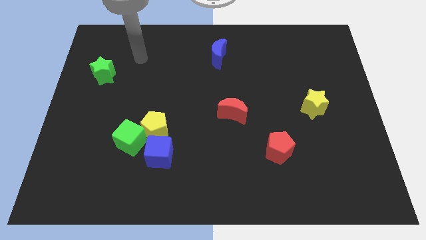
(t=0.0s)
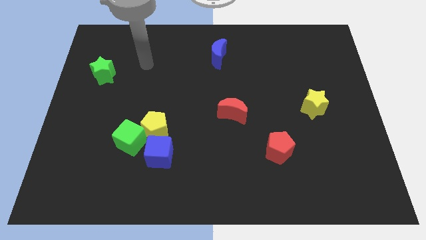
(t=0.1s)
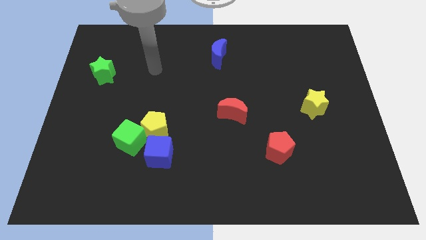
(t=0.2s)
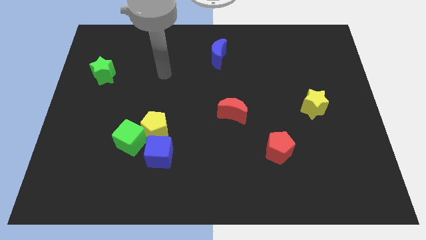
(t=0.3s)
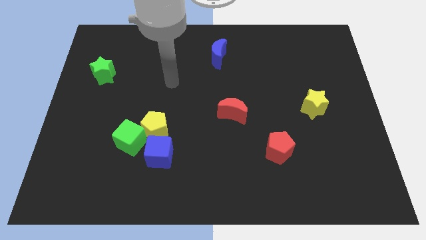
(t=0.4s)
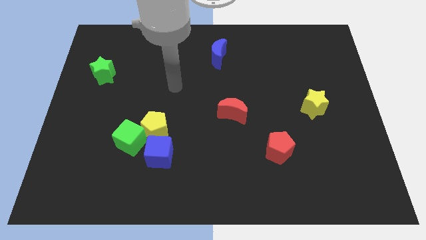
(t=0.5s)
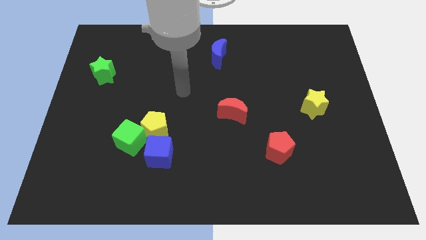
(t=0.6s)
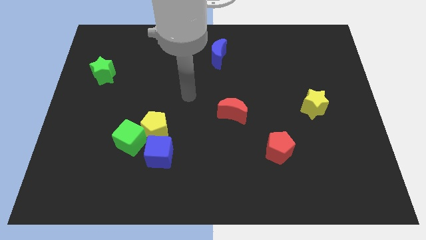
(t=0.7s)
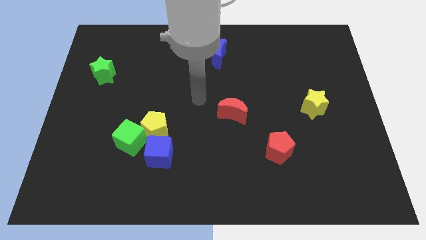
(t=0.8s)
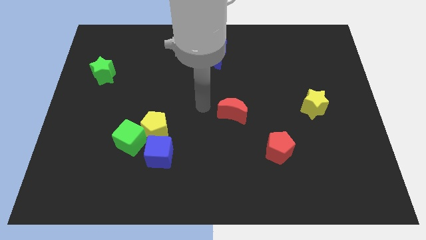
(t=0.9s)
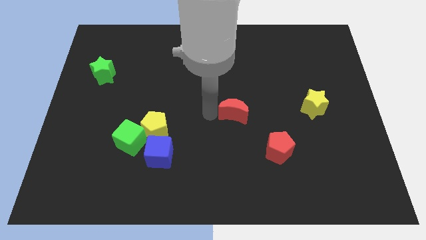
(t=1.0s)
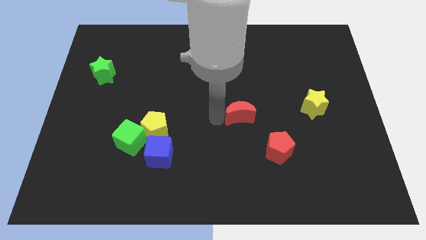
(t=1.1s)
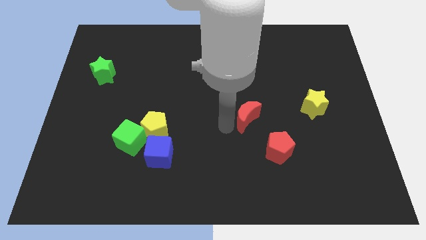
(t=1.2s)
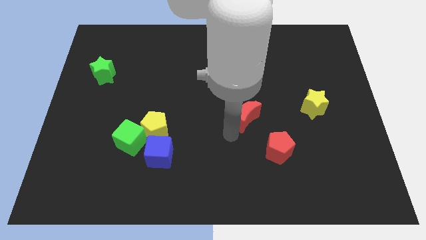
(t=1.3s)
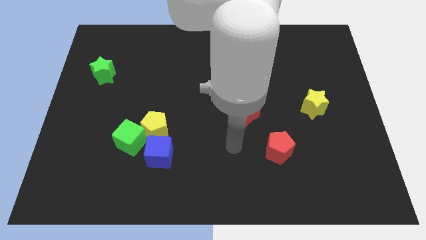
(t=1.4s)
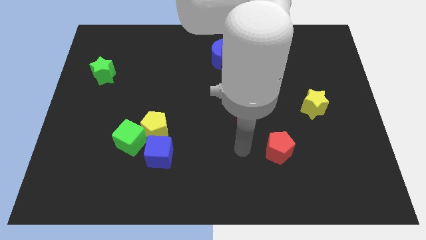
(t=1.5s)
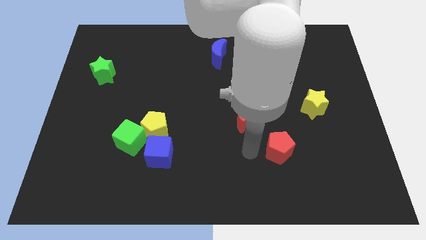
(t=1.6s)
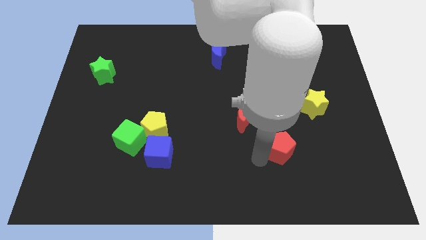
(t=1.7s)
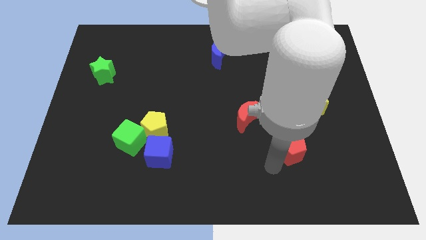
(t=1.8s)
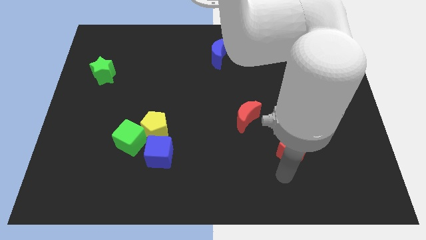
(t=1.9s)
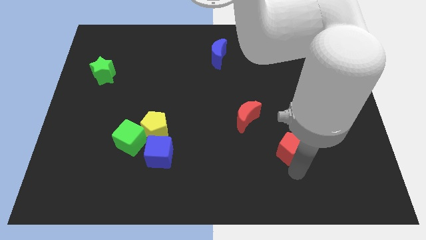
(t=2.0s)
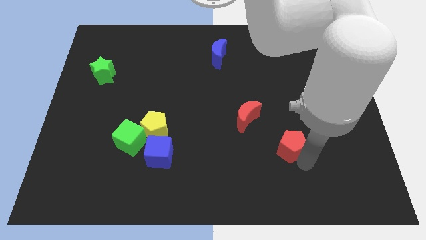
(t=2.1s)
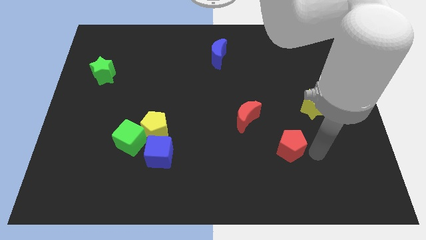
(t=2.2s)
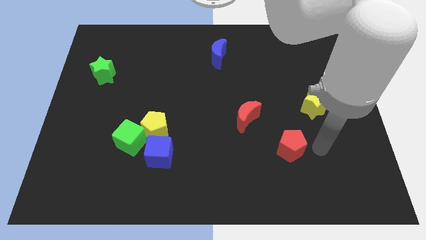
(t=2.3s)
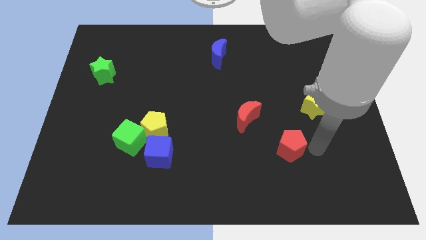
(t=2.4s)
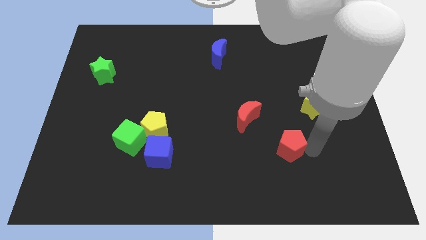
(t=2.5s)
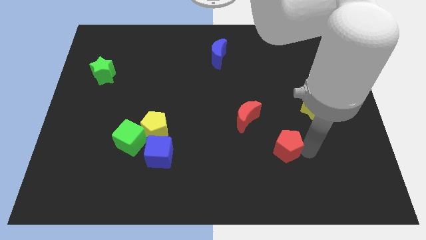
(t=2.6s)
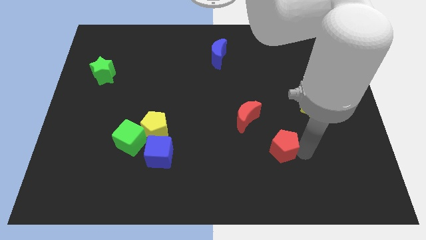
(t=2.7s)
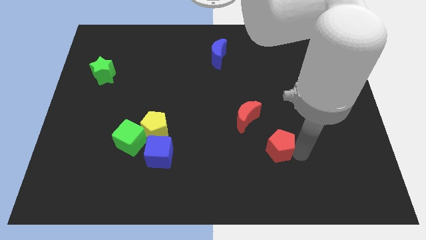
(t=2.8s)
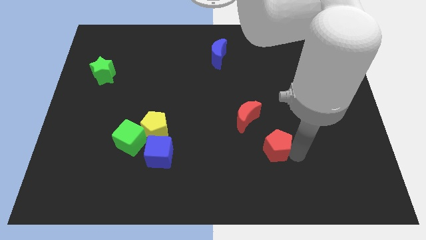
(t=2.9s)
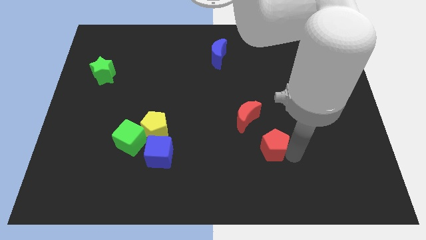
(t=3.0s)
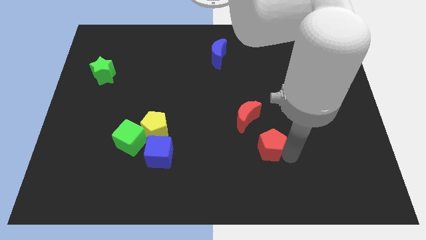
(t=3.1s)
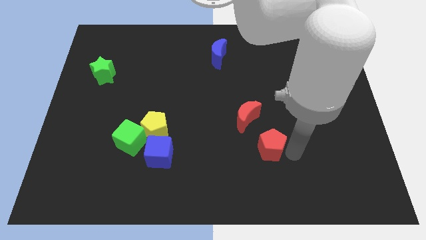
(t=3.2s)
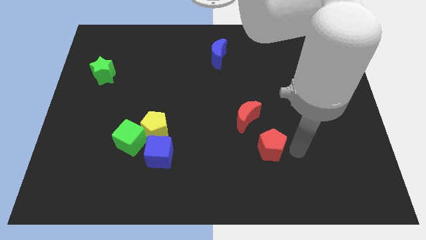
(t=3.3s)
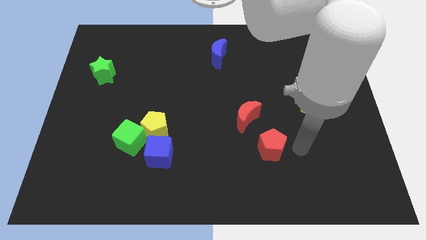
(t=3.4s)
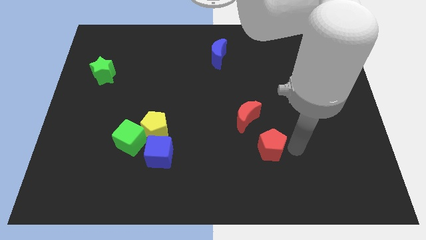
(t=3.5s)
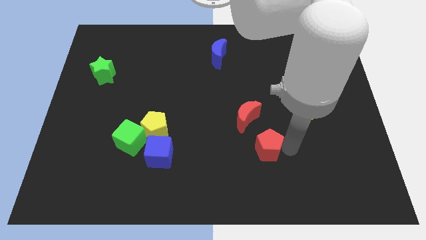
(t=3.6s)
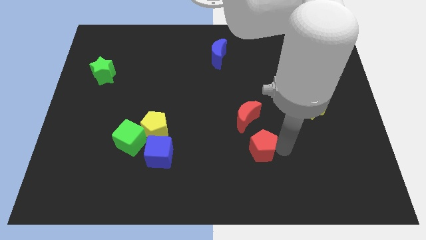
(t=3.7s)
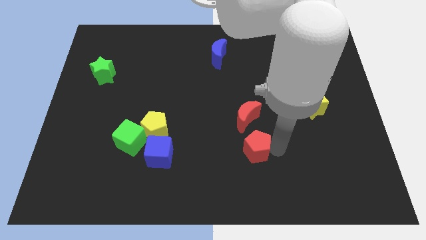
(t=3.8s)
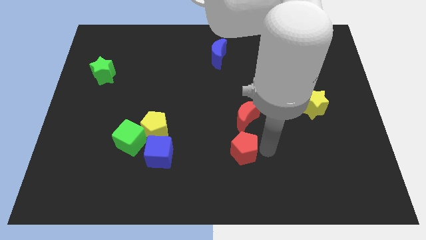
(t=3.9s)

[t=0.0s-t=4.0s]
slightly push the red pentagon to the left

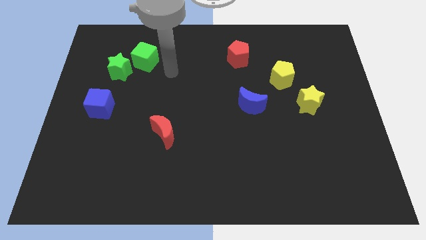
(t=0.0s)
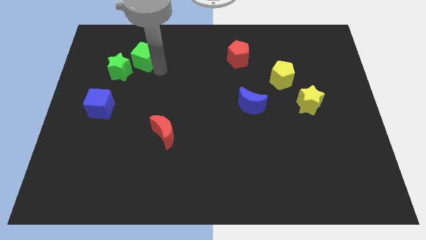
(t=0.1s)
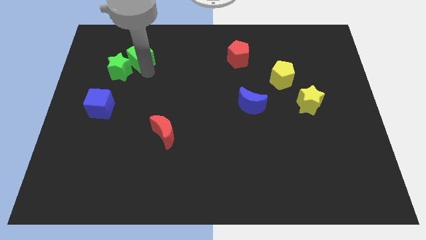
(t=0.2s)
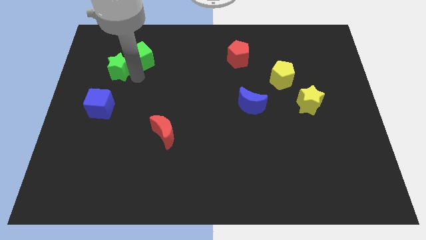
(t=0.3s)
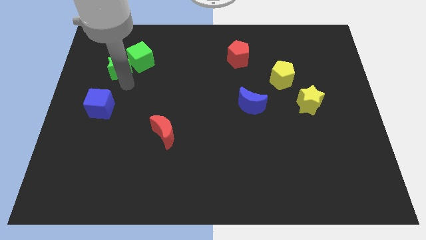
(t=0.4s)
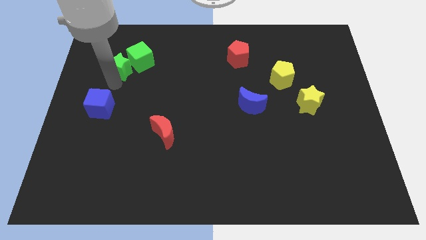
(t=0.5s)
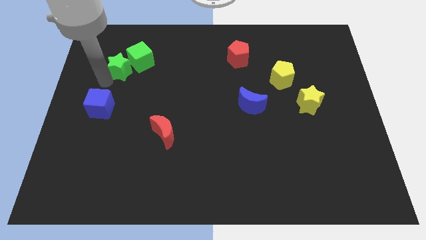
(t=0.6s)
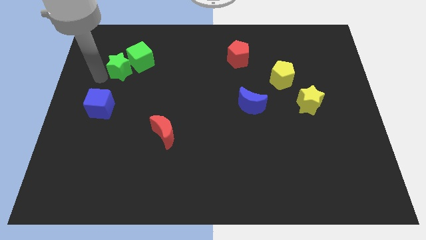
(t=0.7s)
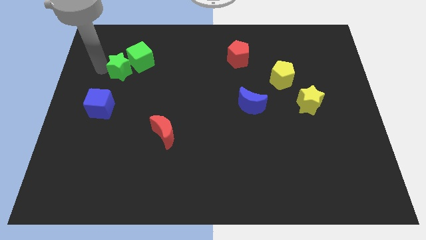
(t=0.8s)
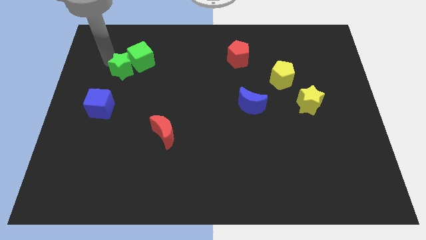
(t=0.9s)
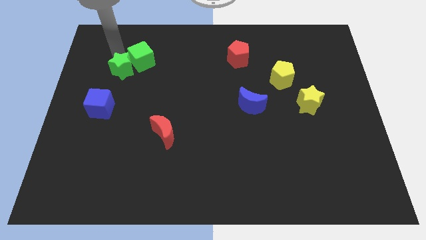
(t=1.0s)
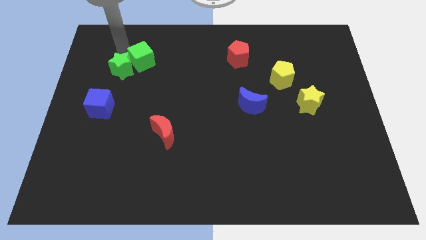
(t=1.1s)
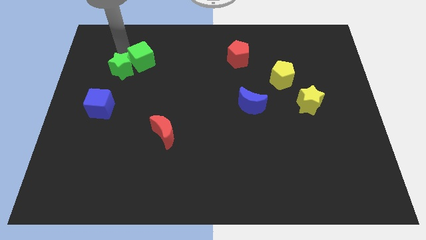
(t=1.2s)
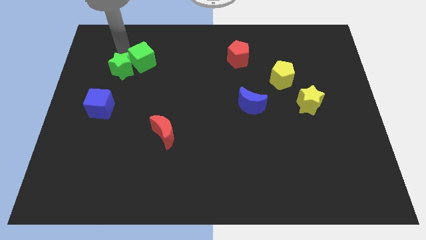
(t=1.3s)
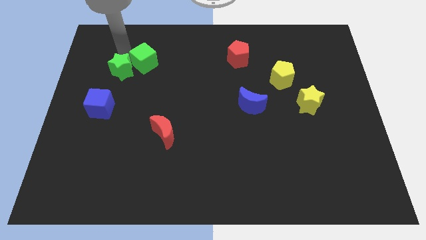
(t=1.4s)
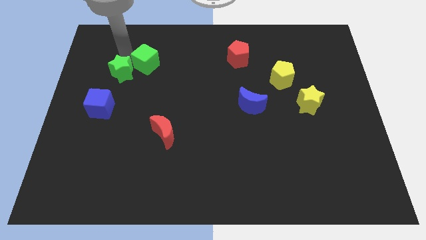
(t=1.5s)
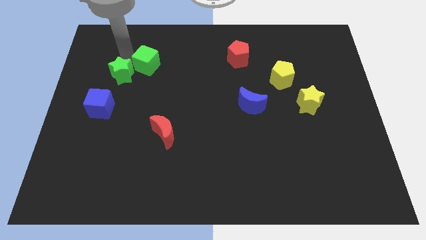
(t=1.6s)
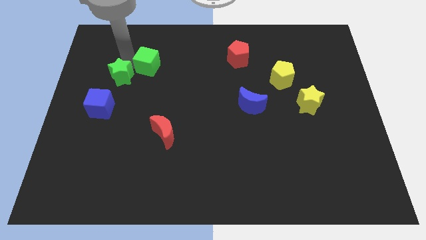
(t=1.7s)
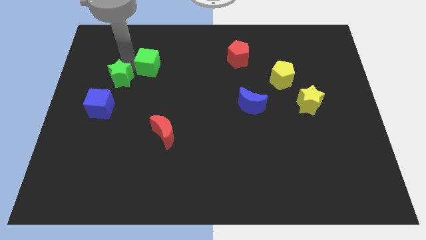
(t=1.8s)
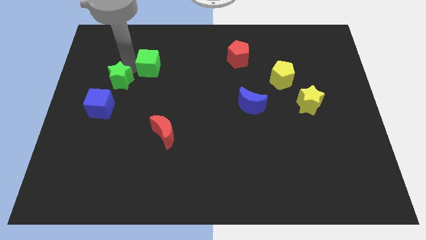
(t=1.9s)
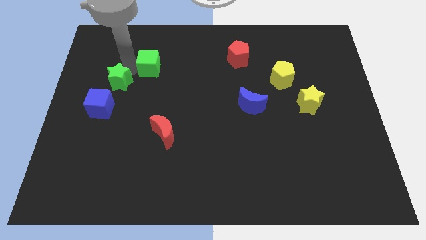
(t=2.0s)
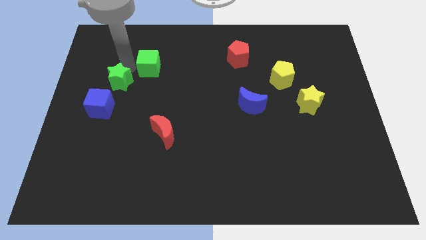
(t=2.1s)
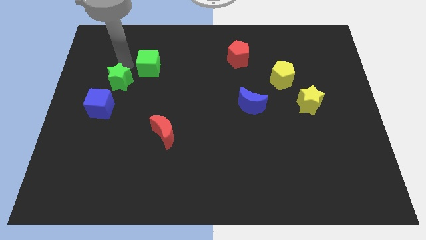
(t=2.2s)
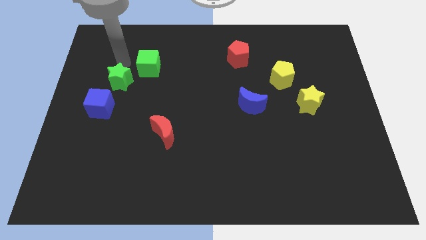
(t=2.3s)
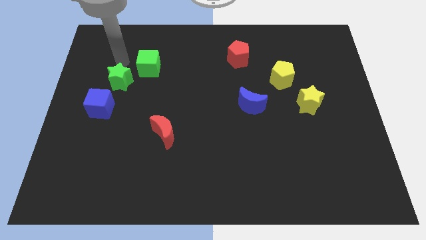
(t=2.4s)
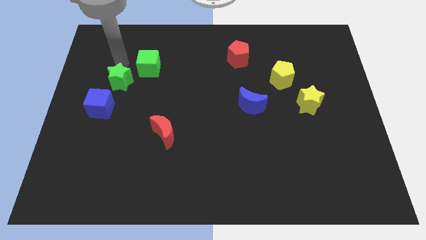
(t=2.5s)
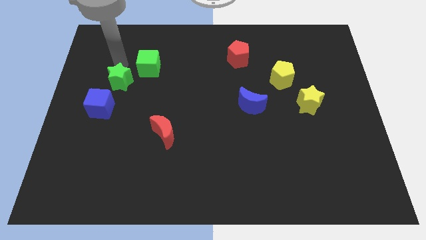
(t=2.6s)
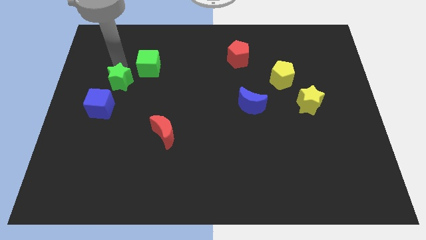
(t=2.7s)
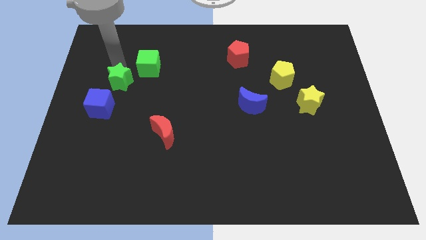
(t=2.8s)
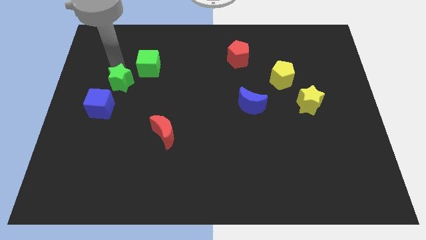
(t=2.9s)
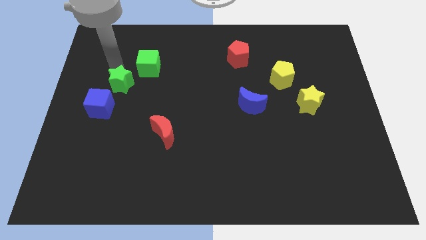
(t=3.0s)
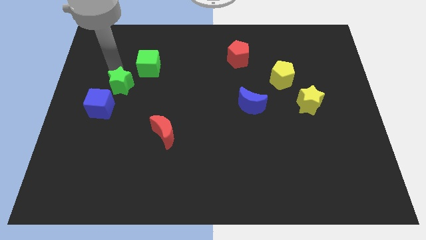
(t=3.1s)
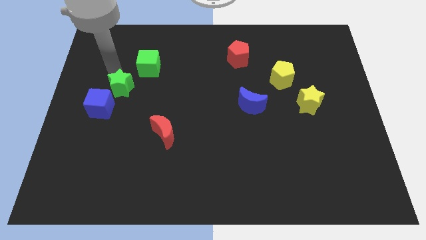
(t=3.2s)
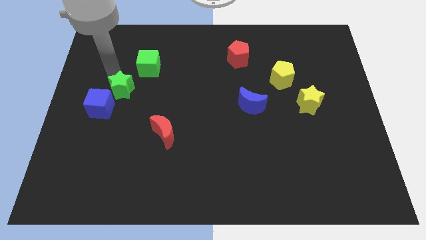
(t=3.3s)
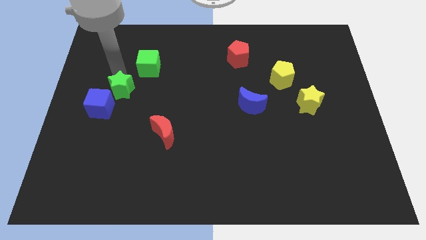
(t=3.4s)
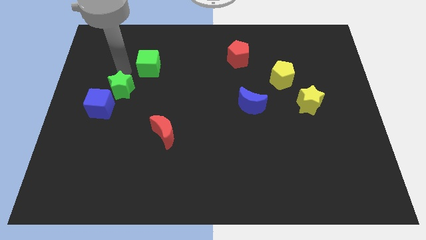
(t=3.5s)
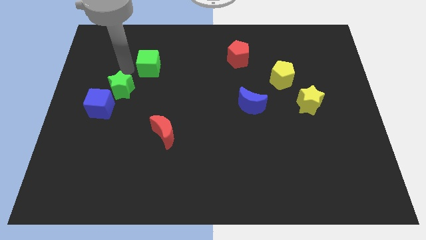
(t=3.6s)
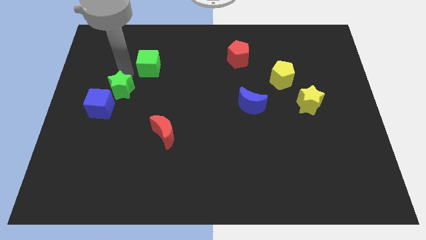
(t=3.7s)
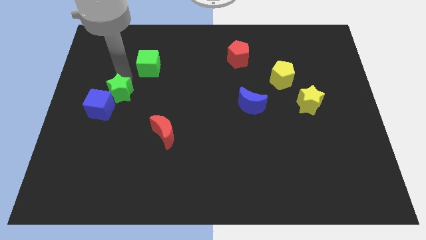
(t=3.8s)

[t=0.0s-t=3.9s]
slide the green star down a little bit

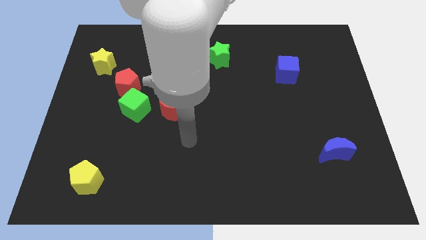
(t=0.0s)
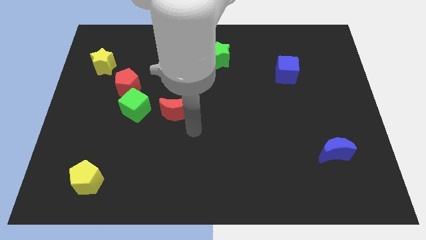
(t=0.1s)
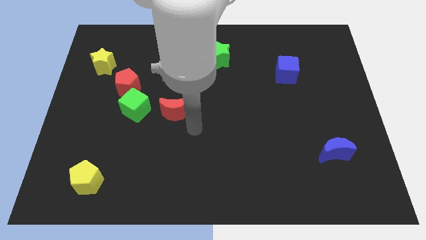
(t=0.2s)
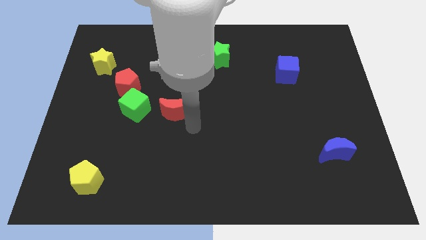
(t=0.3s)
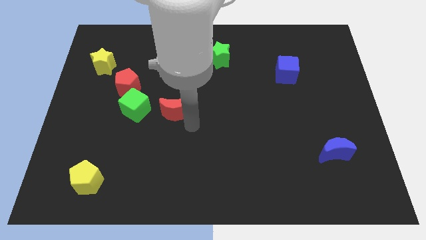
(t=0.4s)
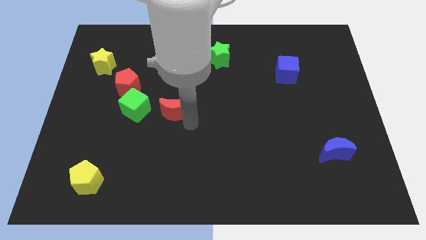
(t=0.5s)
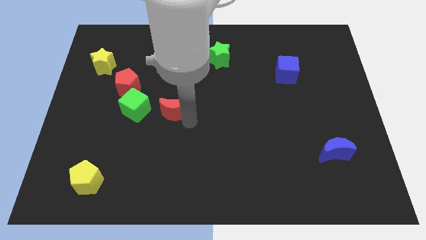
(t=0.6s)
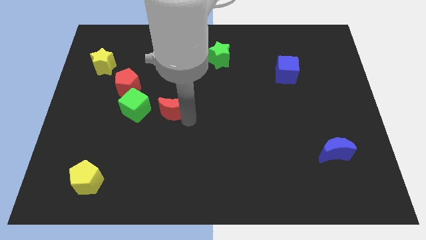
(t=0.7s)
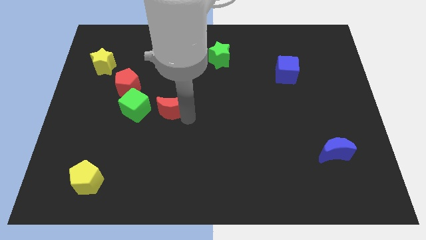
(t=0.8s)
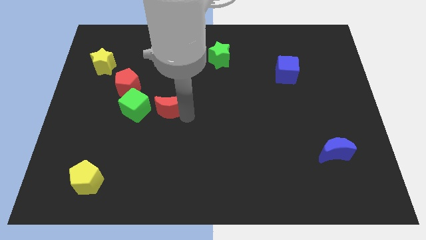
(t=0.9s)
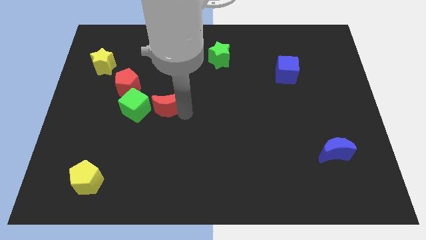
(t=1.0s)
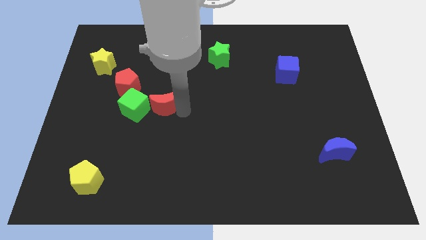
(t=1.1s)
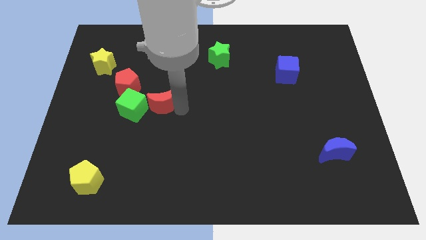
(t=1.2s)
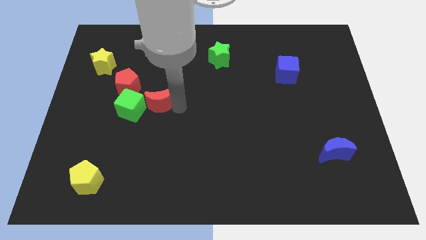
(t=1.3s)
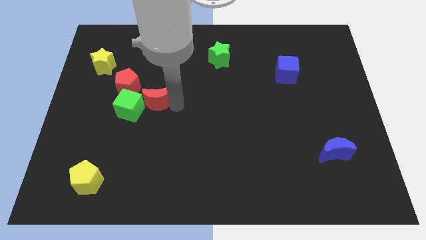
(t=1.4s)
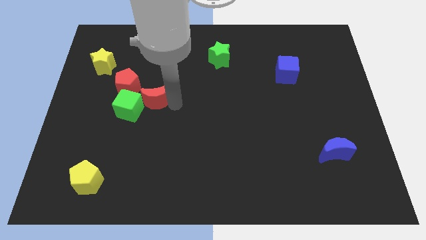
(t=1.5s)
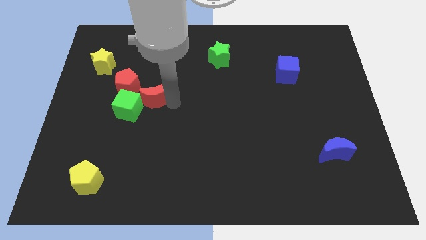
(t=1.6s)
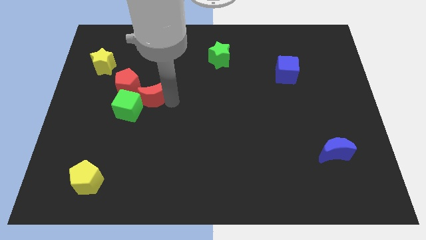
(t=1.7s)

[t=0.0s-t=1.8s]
slightly move the red moon diagonally up and to the left
